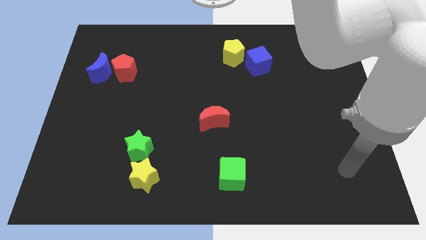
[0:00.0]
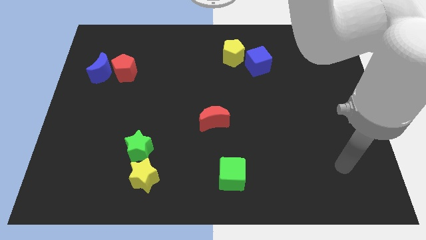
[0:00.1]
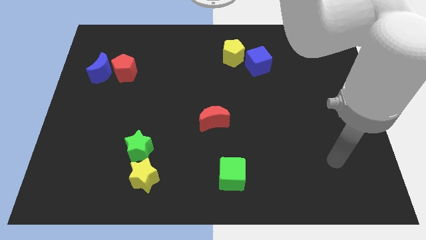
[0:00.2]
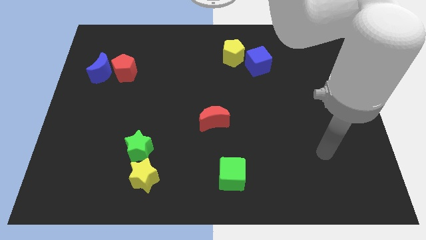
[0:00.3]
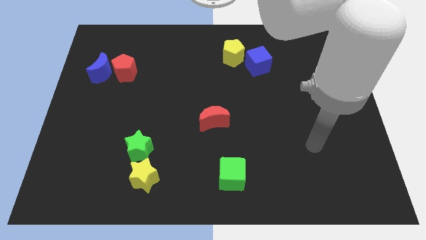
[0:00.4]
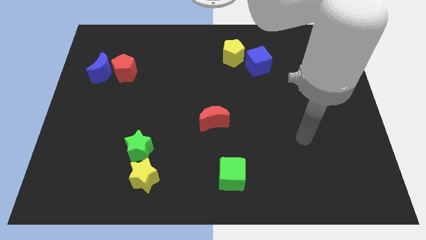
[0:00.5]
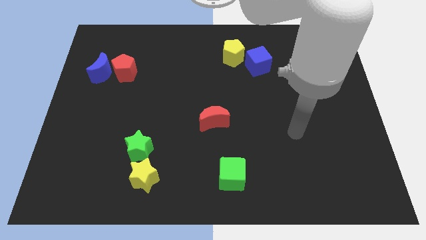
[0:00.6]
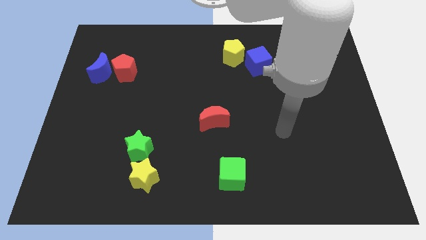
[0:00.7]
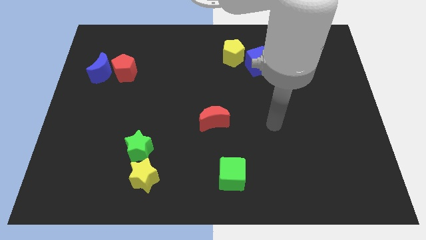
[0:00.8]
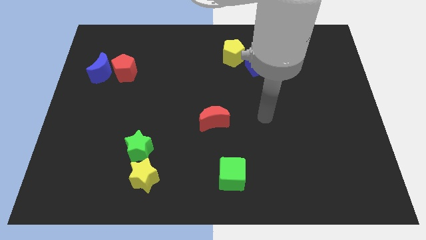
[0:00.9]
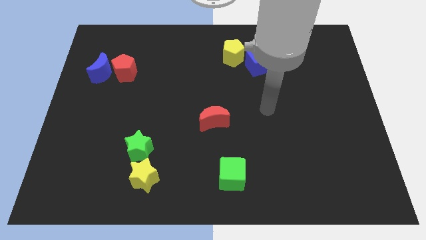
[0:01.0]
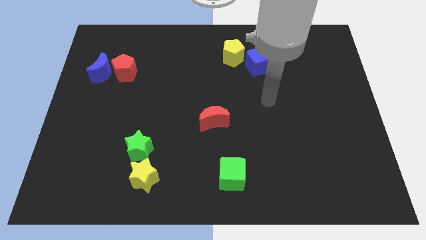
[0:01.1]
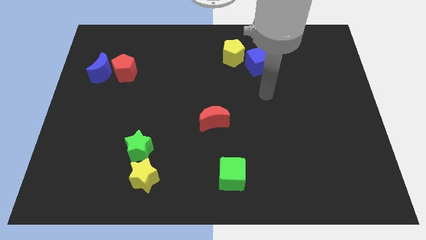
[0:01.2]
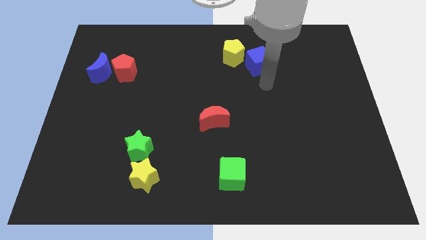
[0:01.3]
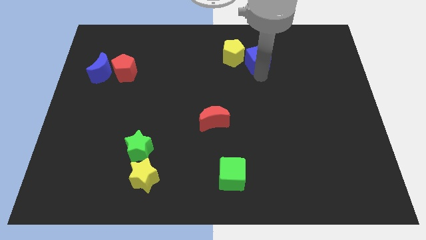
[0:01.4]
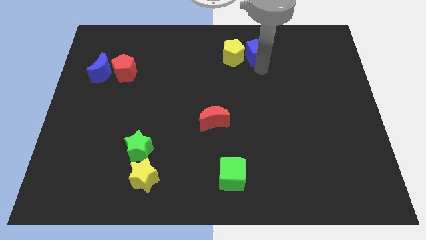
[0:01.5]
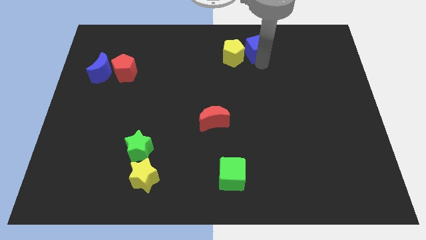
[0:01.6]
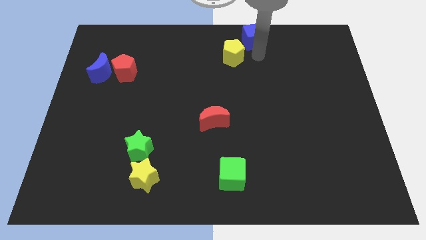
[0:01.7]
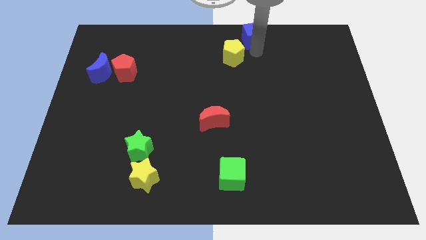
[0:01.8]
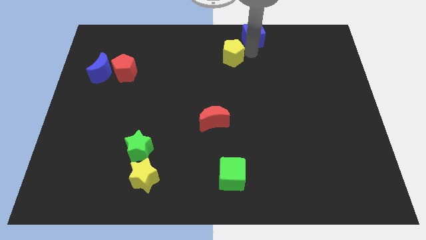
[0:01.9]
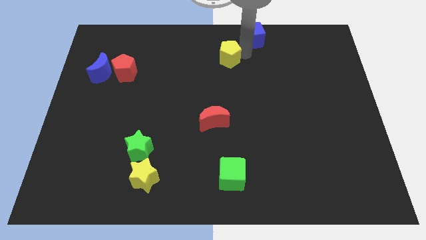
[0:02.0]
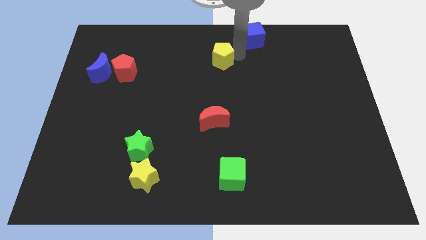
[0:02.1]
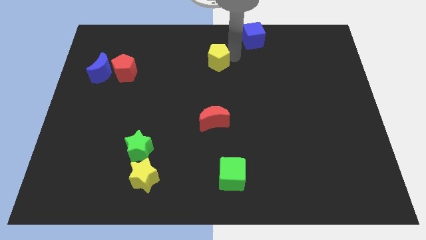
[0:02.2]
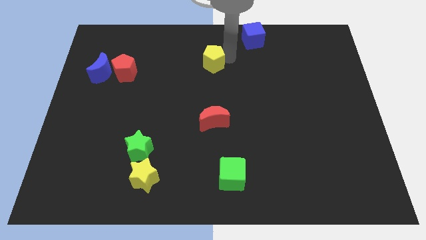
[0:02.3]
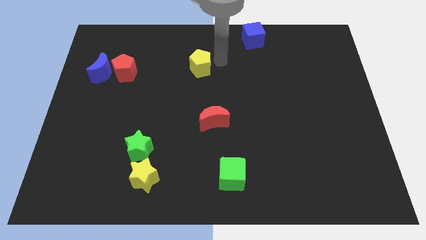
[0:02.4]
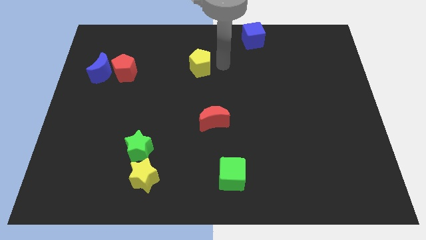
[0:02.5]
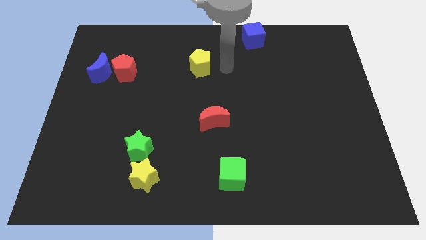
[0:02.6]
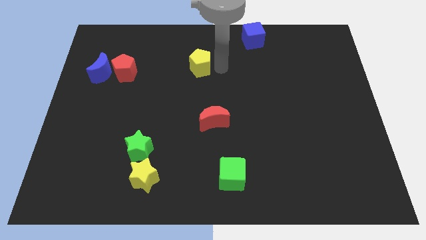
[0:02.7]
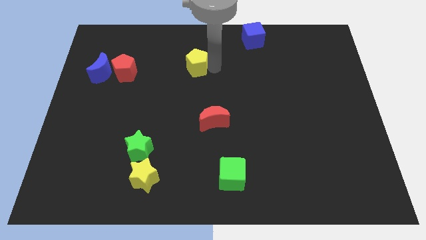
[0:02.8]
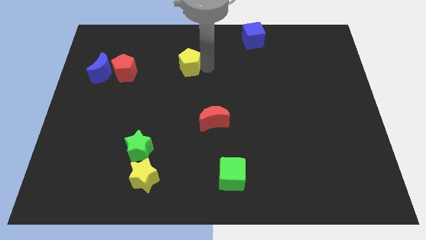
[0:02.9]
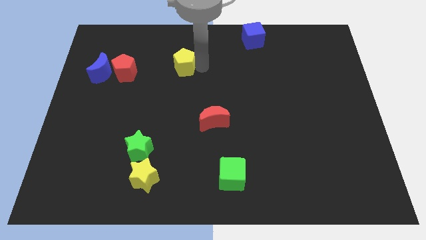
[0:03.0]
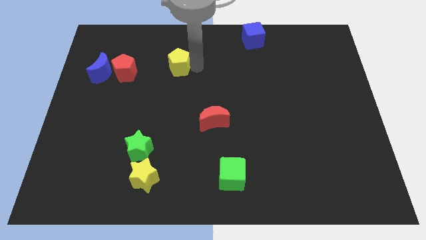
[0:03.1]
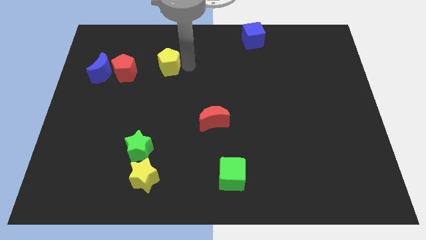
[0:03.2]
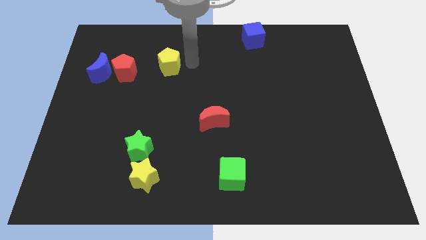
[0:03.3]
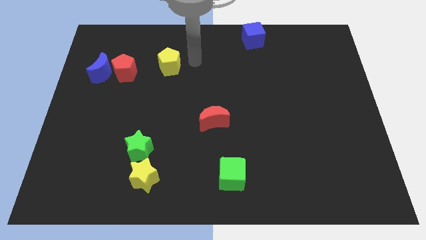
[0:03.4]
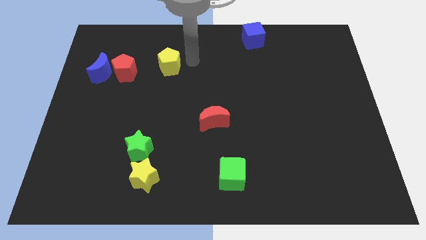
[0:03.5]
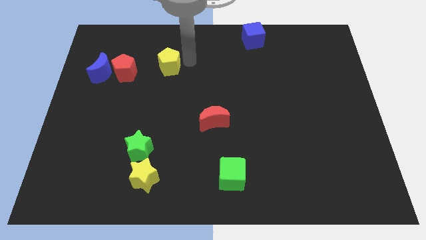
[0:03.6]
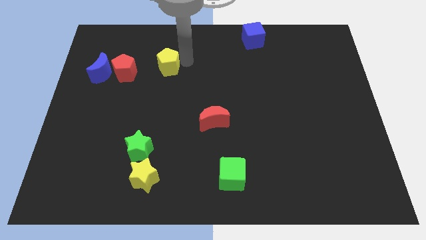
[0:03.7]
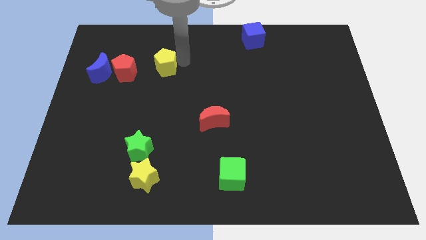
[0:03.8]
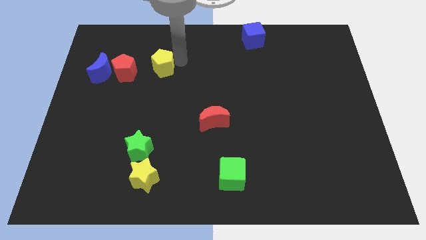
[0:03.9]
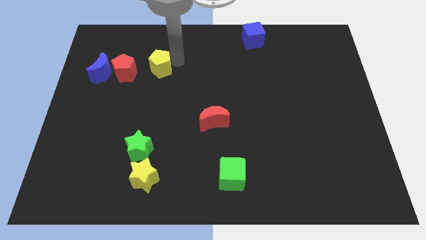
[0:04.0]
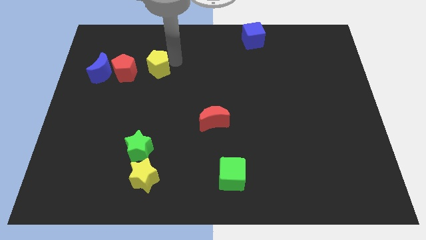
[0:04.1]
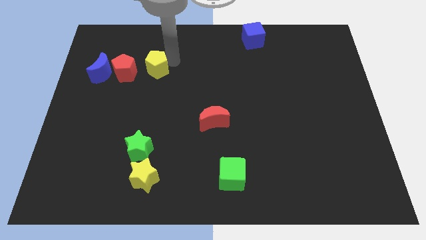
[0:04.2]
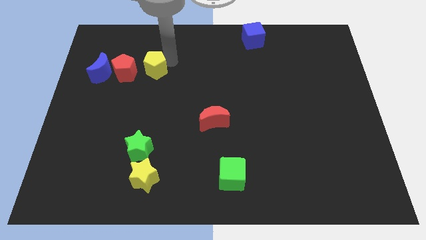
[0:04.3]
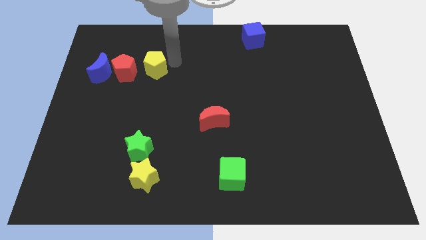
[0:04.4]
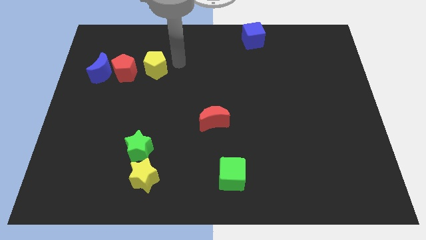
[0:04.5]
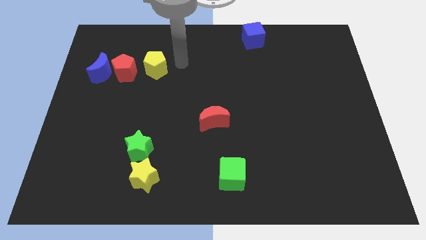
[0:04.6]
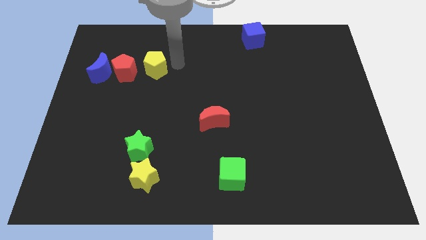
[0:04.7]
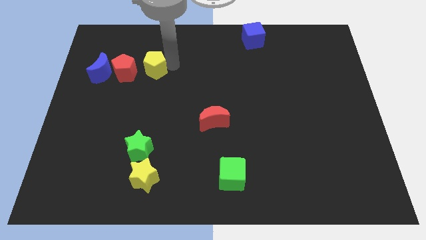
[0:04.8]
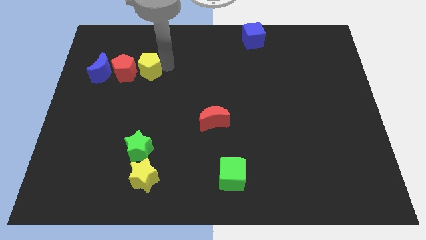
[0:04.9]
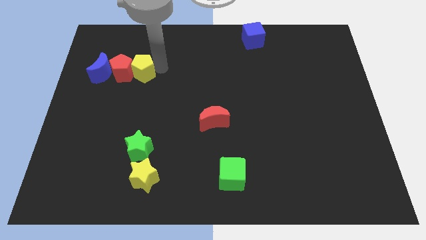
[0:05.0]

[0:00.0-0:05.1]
push the yellow pentagon towards the red pentagon

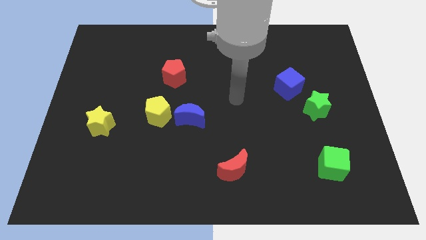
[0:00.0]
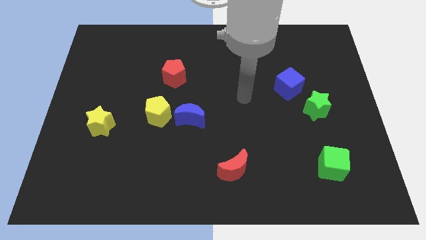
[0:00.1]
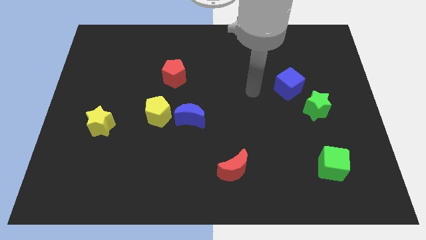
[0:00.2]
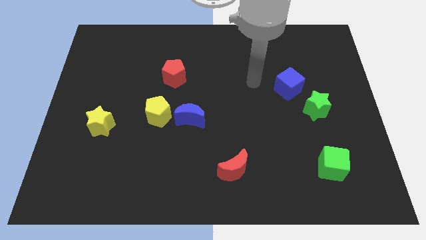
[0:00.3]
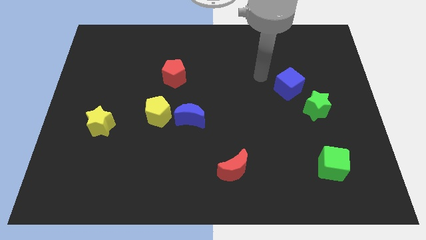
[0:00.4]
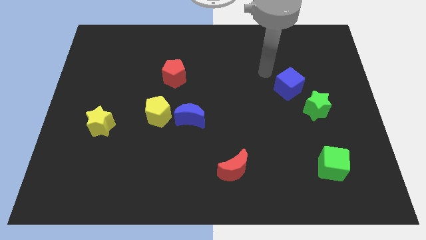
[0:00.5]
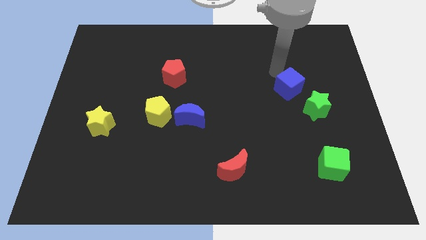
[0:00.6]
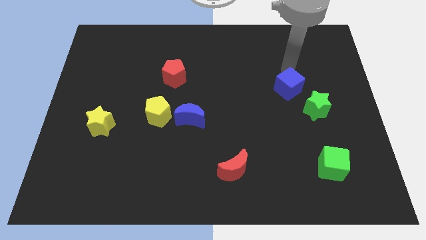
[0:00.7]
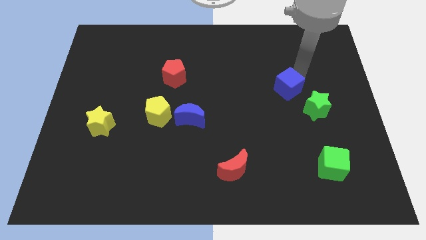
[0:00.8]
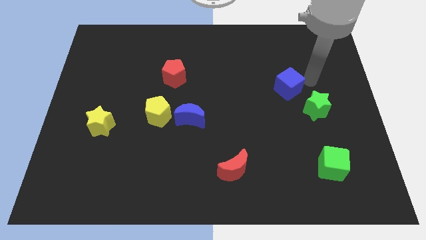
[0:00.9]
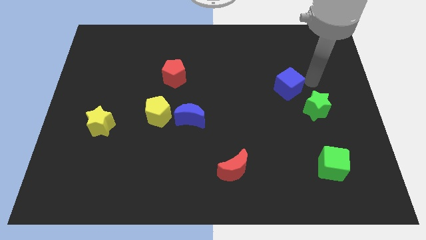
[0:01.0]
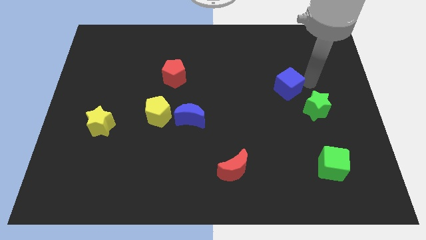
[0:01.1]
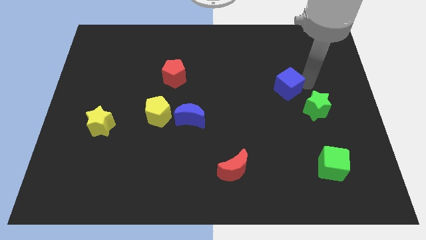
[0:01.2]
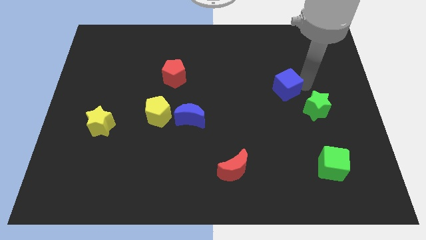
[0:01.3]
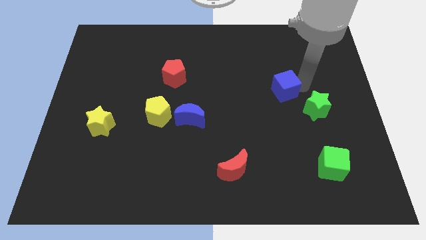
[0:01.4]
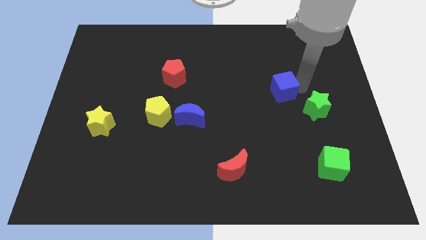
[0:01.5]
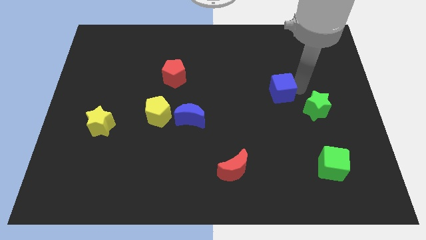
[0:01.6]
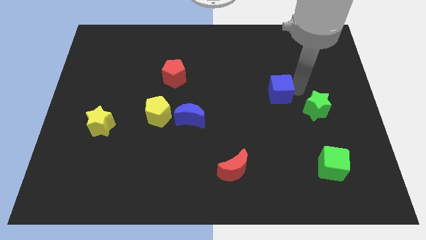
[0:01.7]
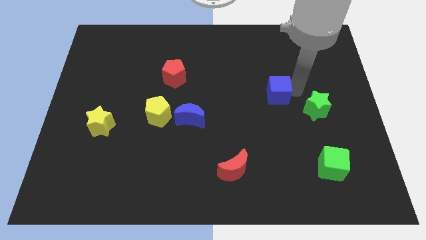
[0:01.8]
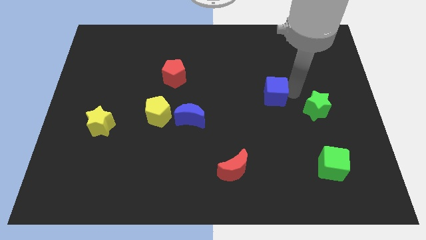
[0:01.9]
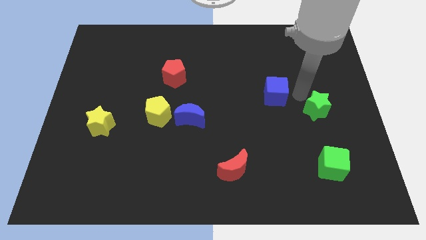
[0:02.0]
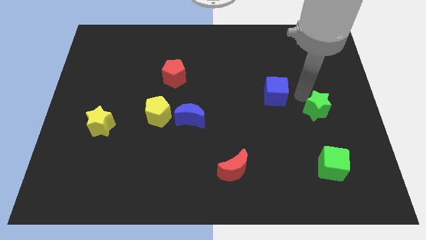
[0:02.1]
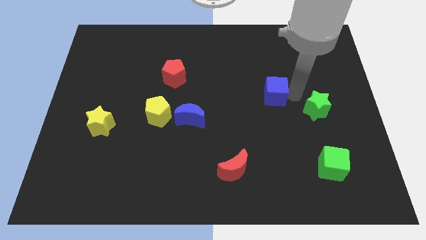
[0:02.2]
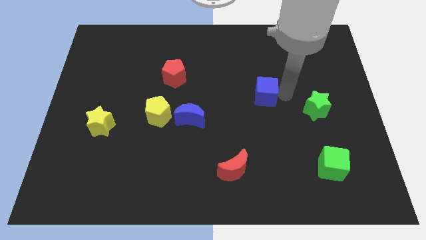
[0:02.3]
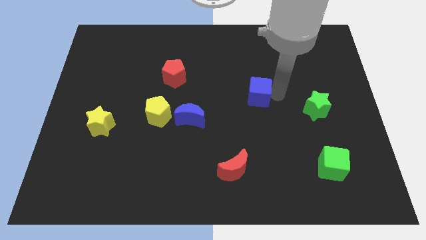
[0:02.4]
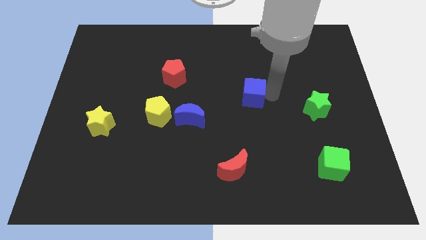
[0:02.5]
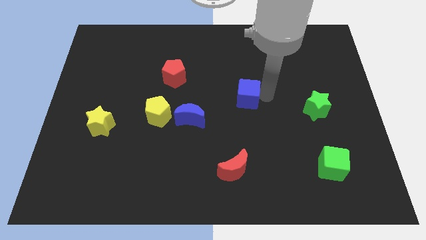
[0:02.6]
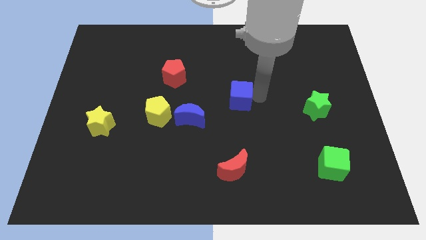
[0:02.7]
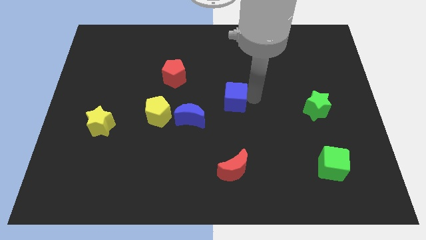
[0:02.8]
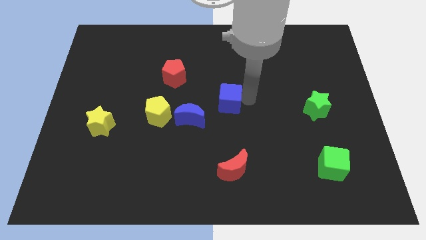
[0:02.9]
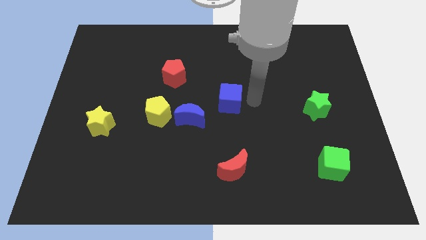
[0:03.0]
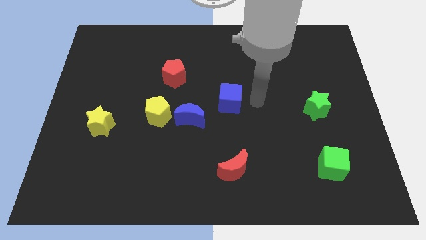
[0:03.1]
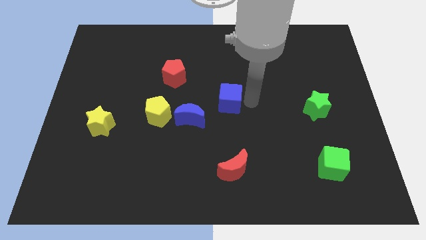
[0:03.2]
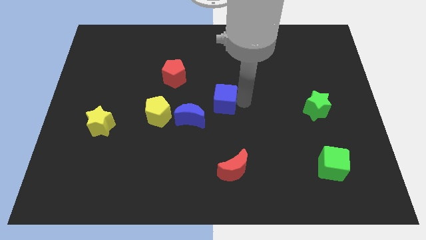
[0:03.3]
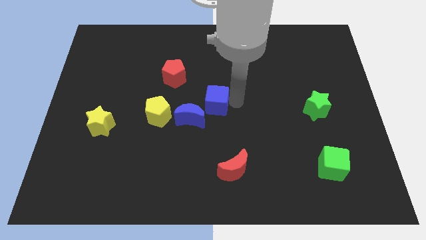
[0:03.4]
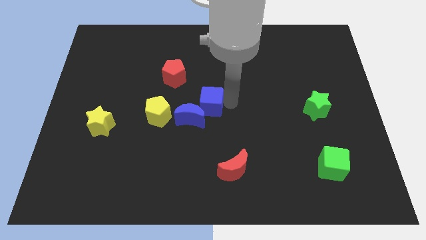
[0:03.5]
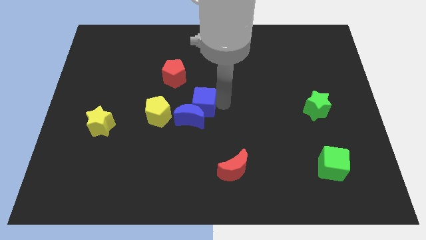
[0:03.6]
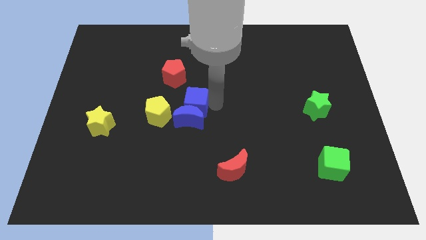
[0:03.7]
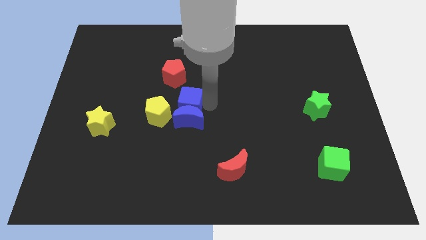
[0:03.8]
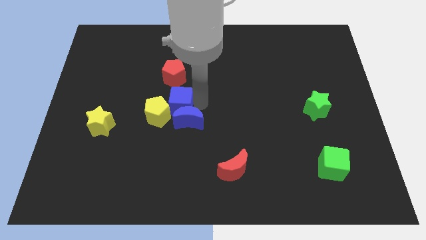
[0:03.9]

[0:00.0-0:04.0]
push the blue cube towards the yellow pentagon
